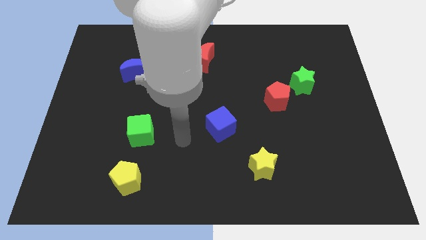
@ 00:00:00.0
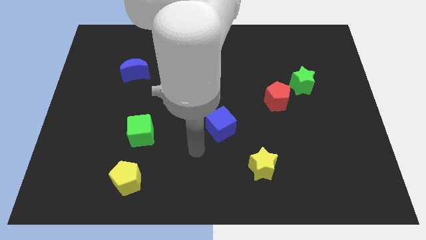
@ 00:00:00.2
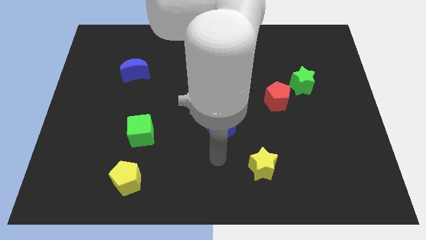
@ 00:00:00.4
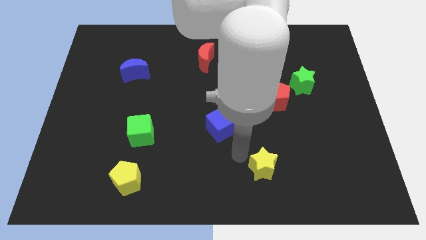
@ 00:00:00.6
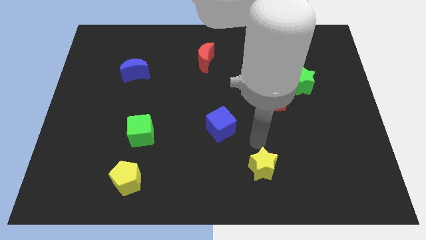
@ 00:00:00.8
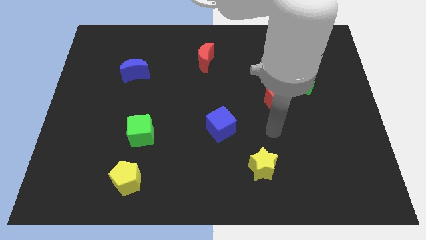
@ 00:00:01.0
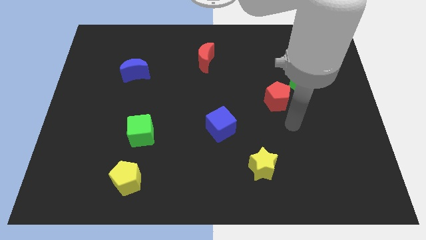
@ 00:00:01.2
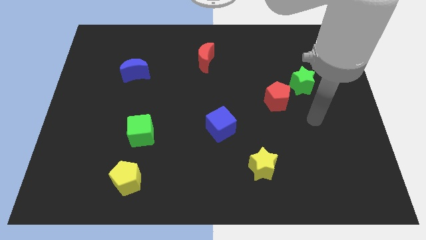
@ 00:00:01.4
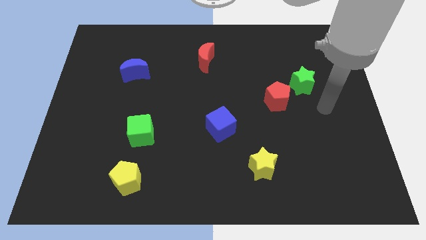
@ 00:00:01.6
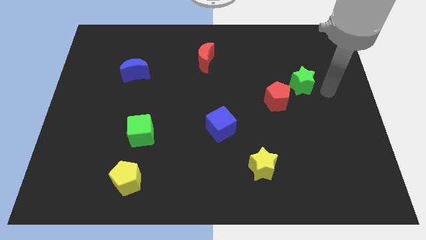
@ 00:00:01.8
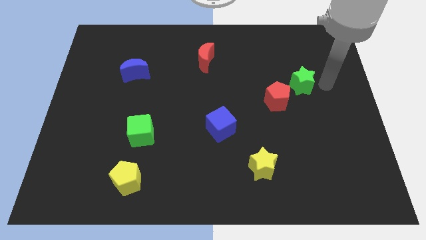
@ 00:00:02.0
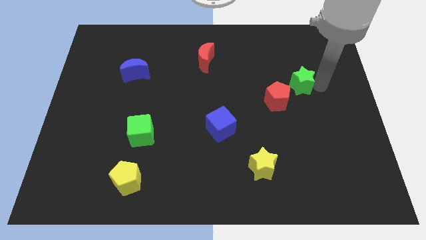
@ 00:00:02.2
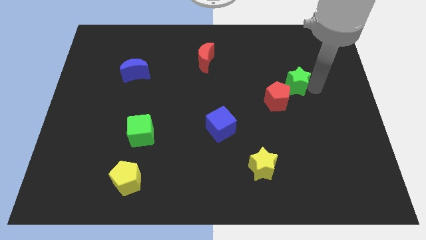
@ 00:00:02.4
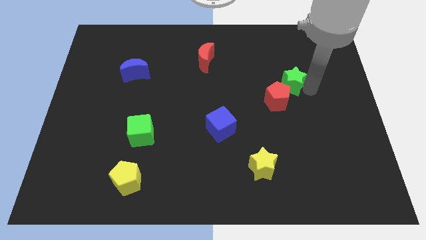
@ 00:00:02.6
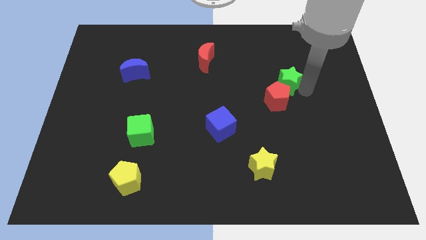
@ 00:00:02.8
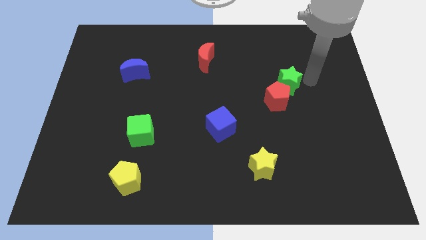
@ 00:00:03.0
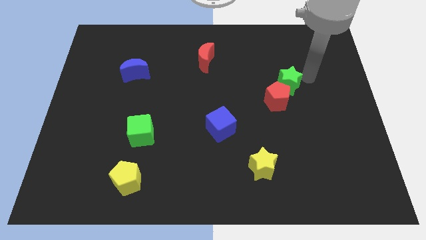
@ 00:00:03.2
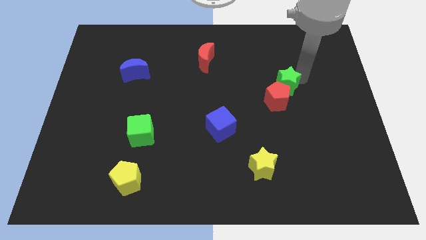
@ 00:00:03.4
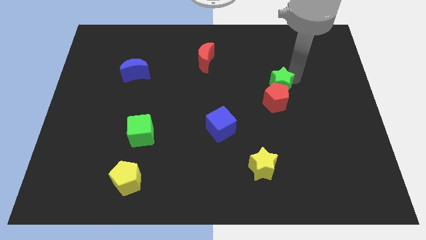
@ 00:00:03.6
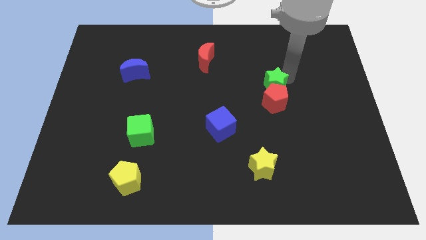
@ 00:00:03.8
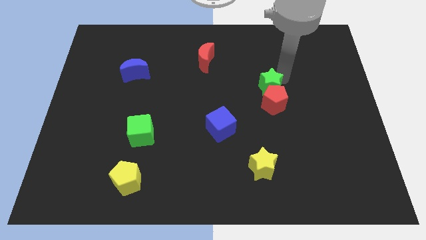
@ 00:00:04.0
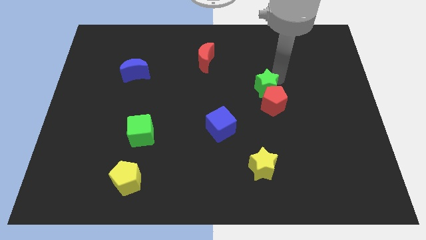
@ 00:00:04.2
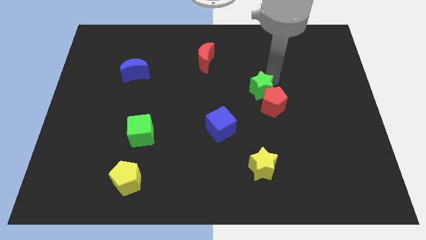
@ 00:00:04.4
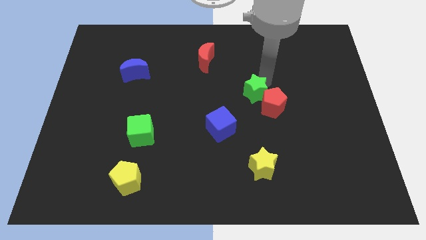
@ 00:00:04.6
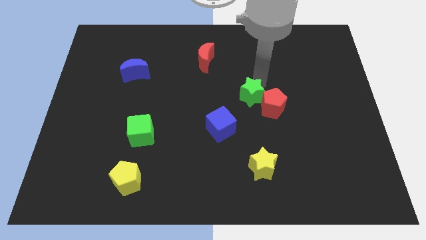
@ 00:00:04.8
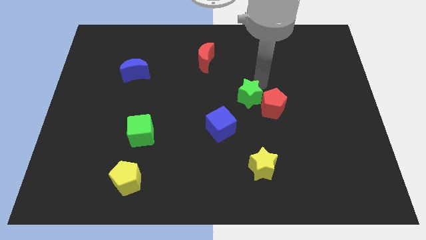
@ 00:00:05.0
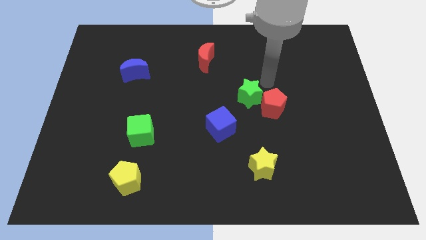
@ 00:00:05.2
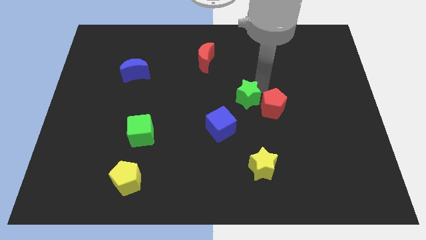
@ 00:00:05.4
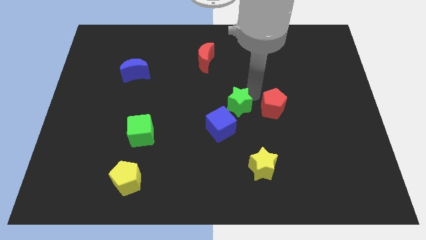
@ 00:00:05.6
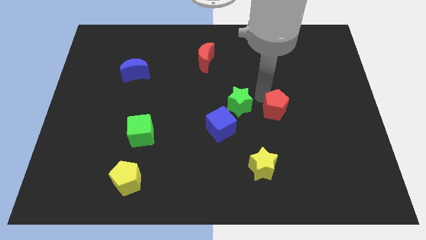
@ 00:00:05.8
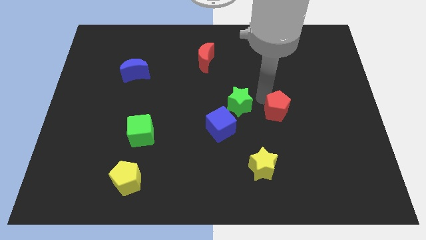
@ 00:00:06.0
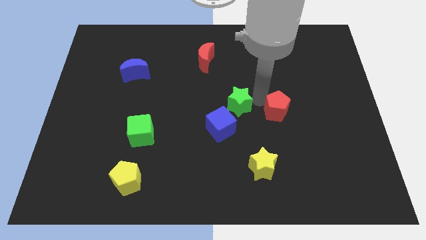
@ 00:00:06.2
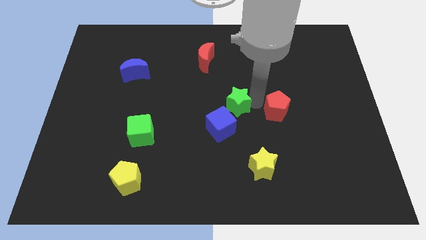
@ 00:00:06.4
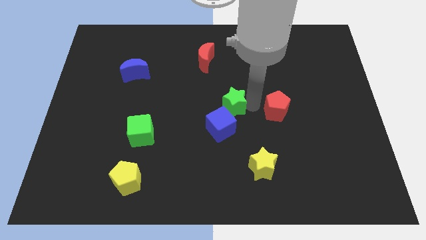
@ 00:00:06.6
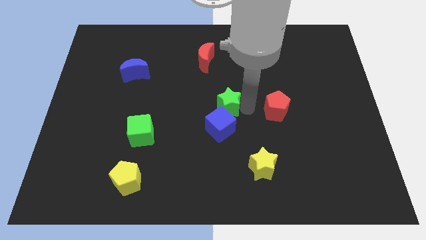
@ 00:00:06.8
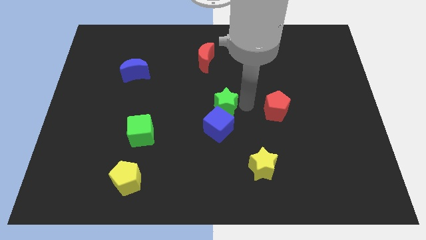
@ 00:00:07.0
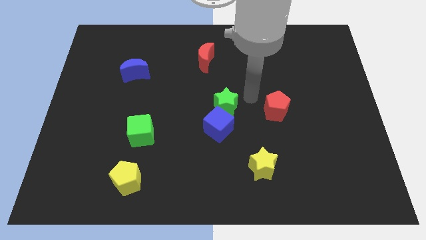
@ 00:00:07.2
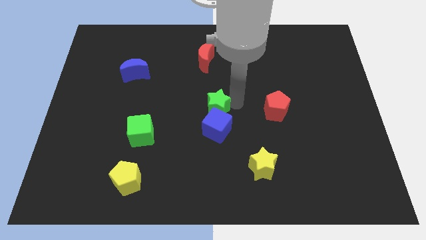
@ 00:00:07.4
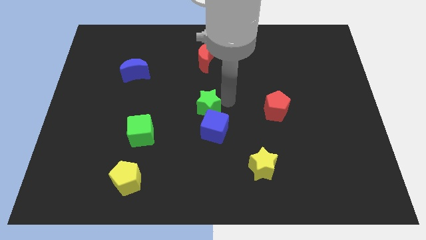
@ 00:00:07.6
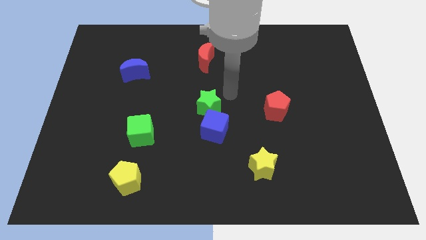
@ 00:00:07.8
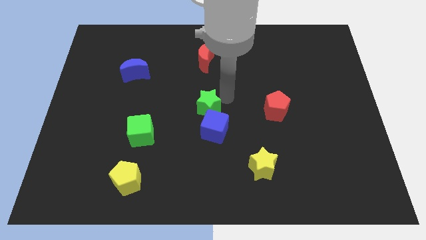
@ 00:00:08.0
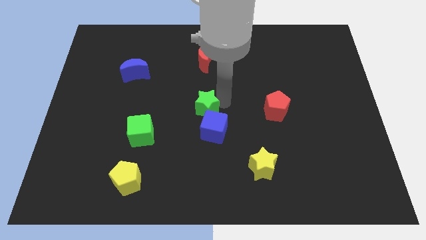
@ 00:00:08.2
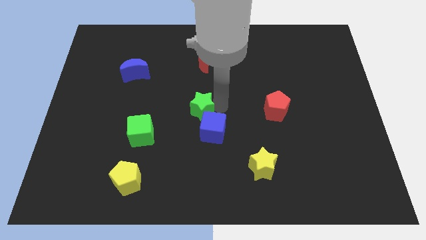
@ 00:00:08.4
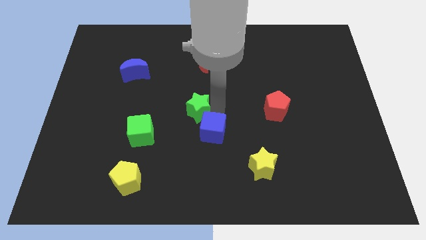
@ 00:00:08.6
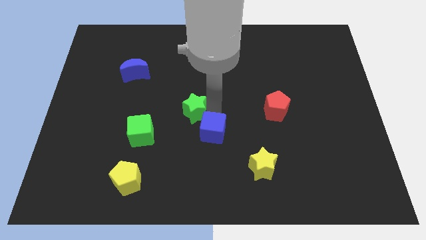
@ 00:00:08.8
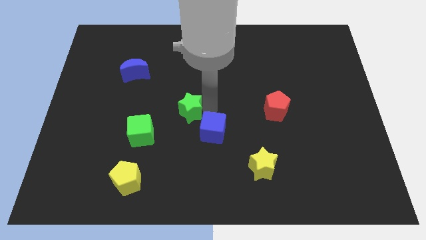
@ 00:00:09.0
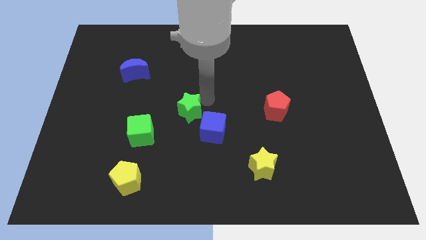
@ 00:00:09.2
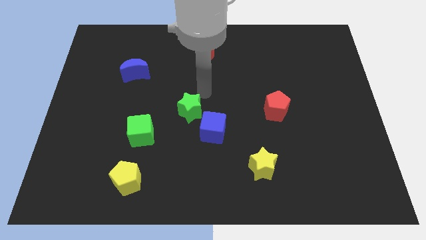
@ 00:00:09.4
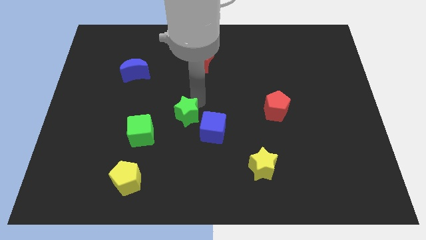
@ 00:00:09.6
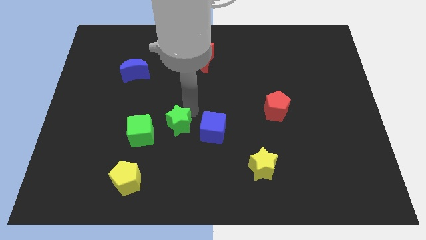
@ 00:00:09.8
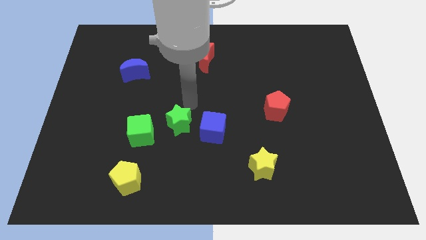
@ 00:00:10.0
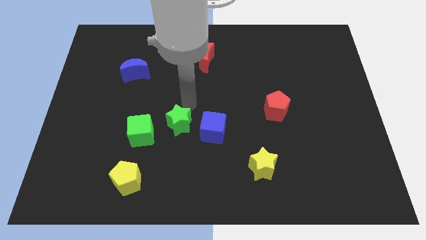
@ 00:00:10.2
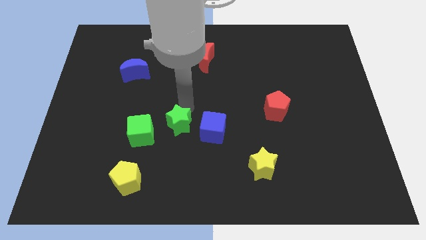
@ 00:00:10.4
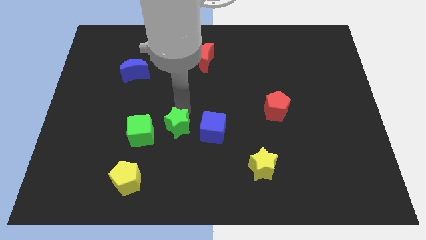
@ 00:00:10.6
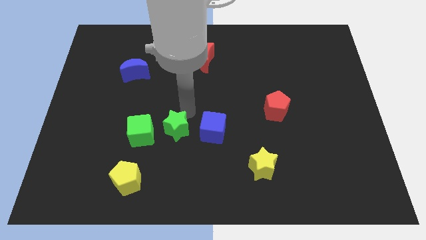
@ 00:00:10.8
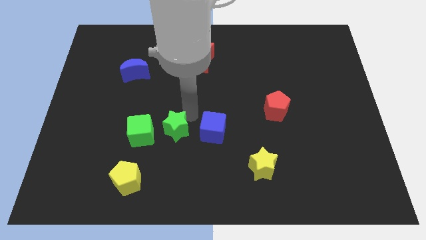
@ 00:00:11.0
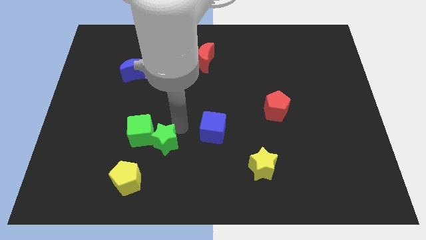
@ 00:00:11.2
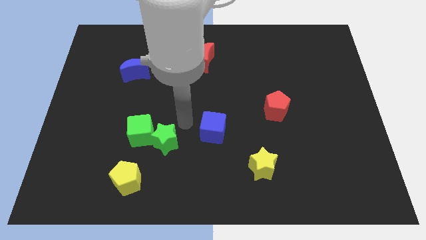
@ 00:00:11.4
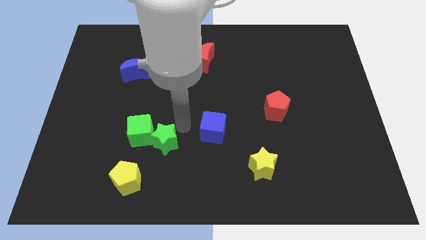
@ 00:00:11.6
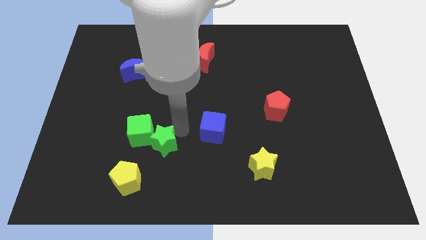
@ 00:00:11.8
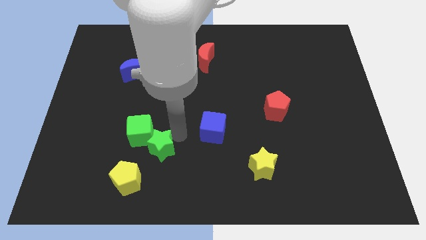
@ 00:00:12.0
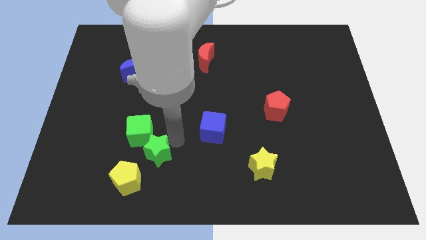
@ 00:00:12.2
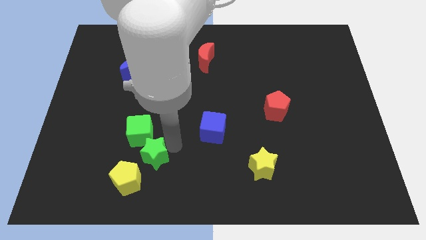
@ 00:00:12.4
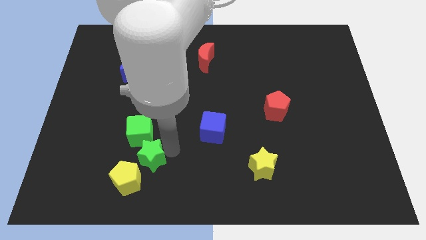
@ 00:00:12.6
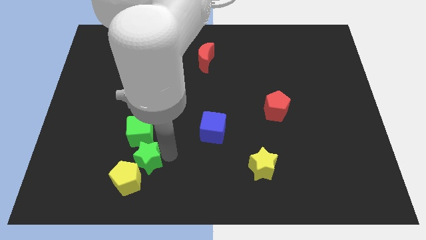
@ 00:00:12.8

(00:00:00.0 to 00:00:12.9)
slide the green star next to the yellow pentagon
